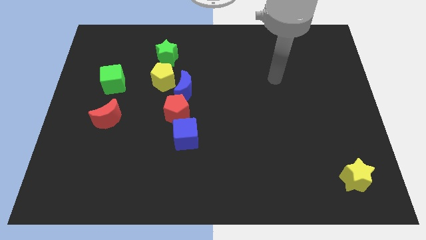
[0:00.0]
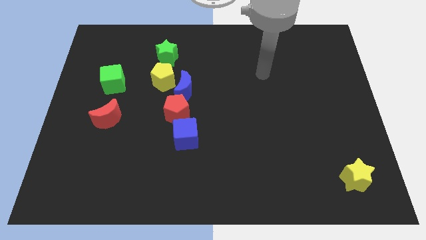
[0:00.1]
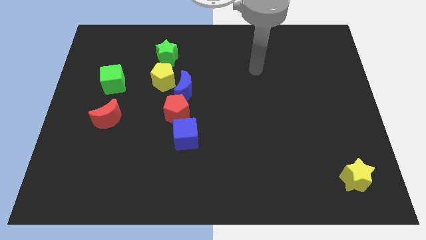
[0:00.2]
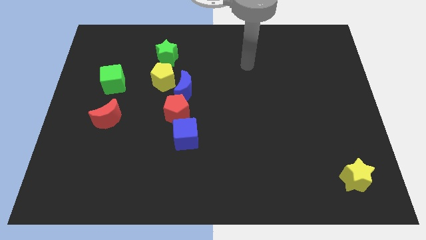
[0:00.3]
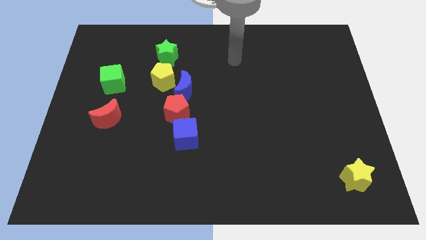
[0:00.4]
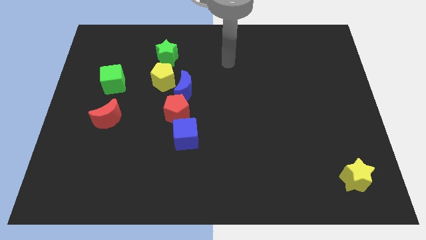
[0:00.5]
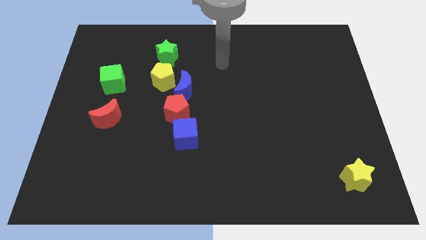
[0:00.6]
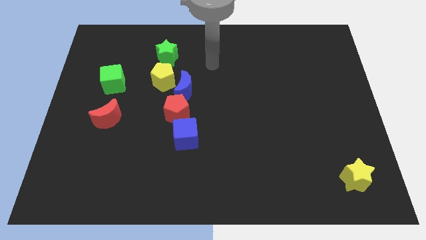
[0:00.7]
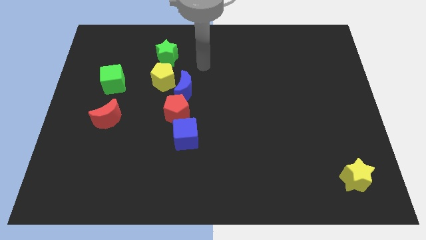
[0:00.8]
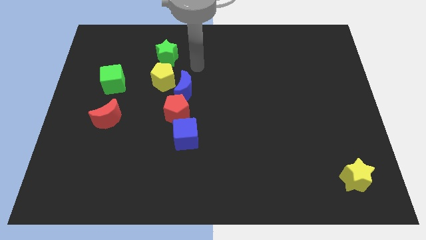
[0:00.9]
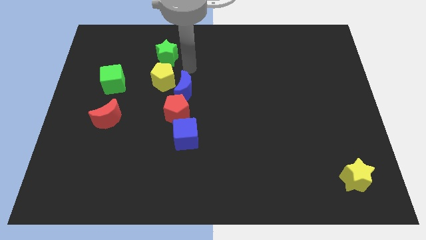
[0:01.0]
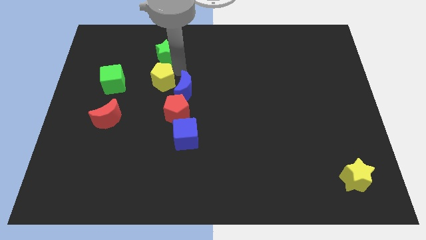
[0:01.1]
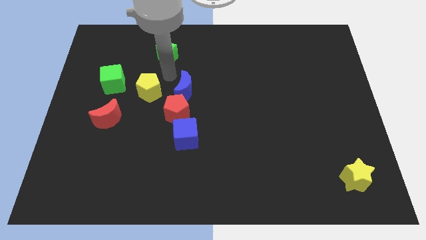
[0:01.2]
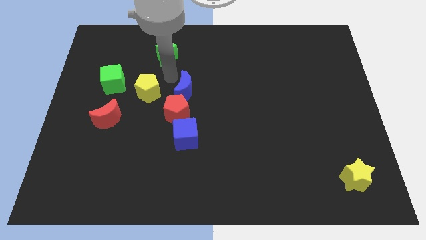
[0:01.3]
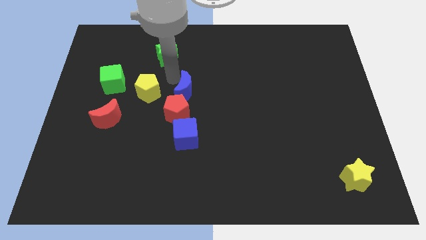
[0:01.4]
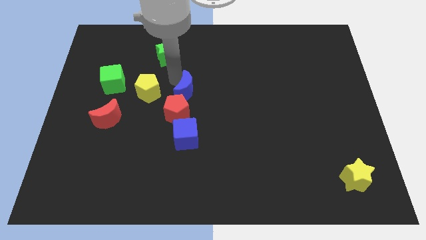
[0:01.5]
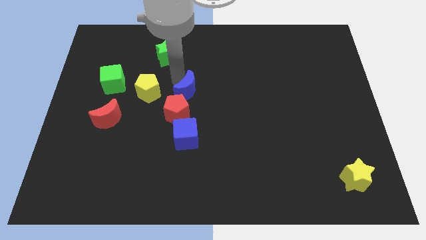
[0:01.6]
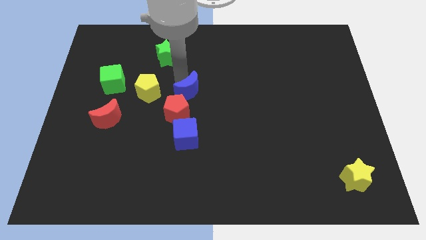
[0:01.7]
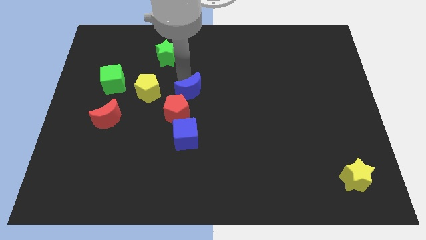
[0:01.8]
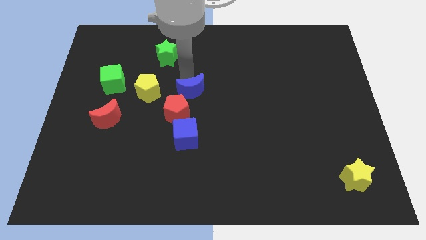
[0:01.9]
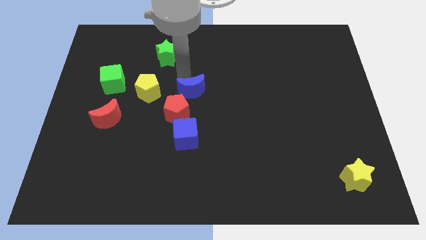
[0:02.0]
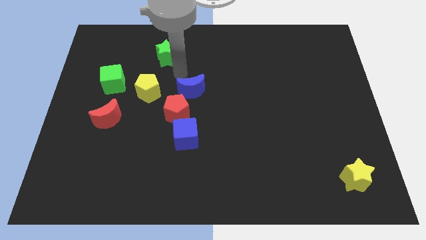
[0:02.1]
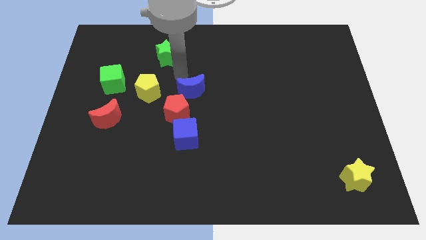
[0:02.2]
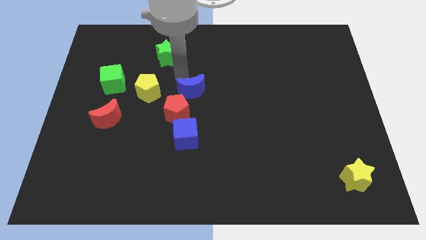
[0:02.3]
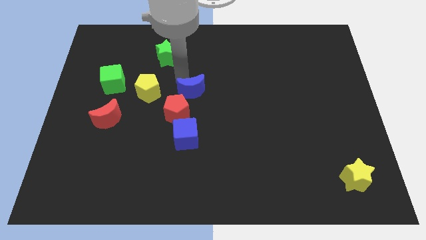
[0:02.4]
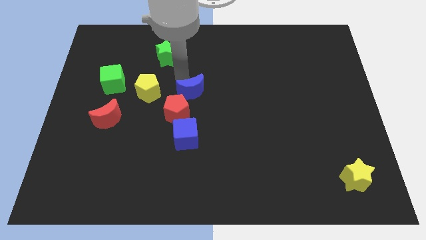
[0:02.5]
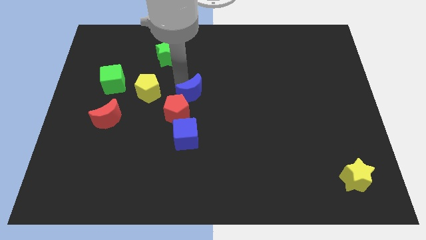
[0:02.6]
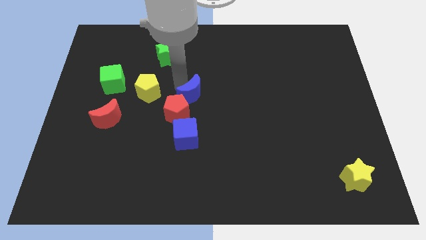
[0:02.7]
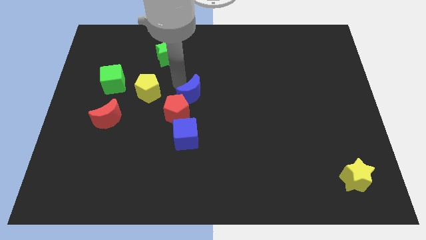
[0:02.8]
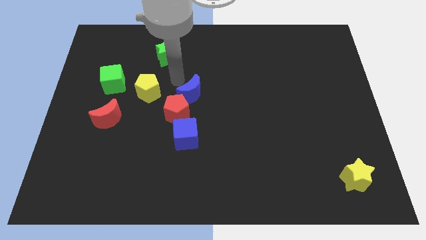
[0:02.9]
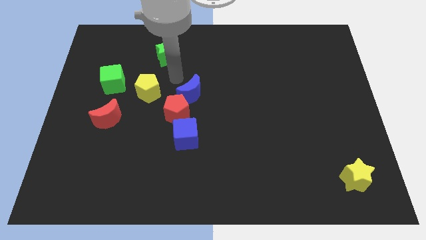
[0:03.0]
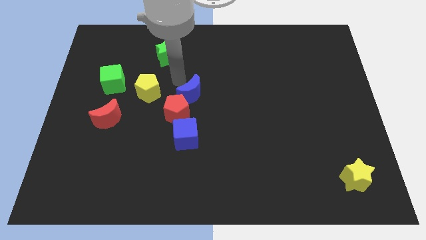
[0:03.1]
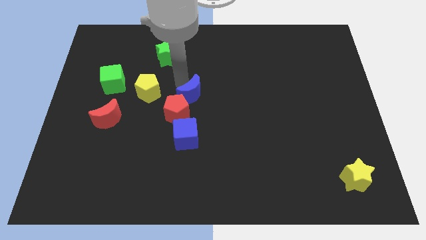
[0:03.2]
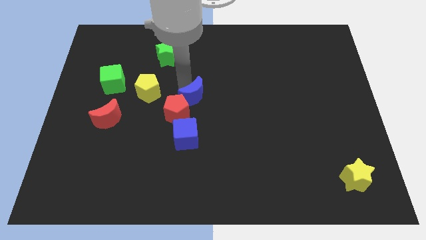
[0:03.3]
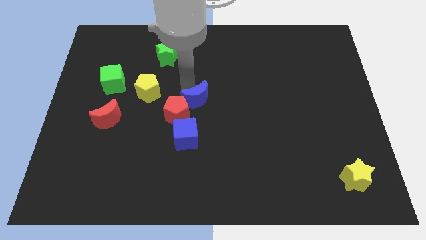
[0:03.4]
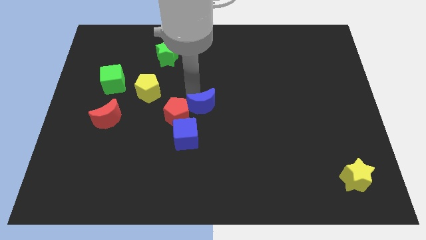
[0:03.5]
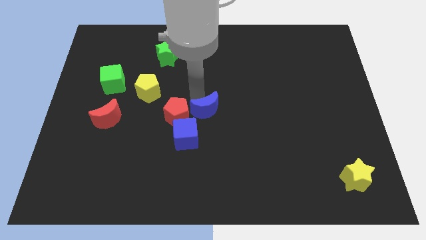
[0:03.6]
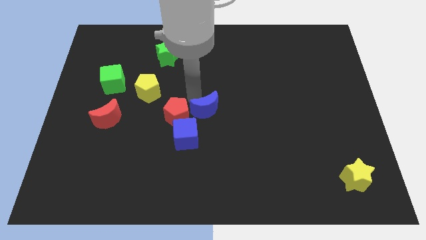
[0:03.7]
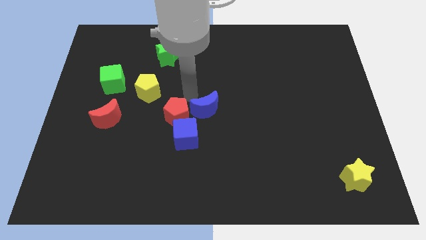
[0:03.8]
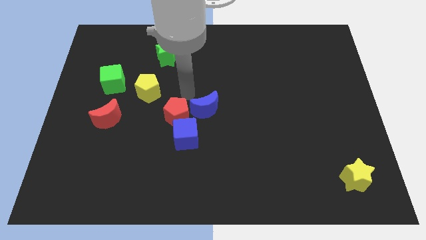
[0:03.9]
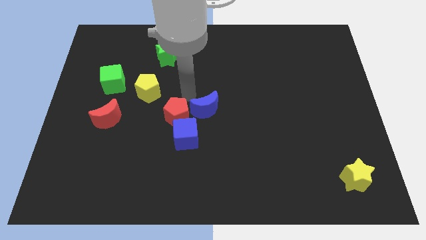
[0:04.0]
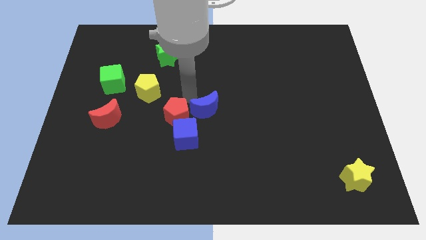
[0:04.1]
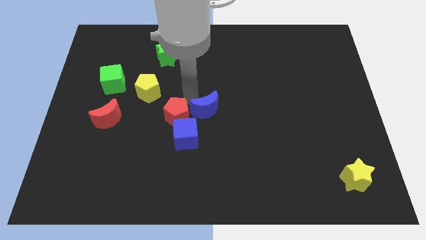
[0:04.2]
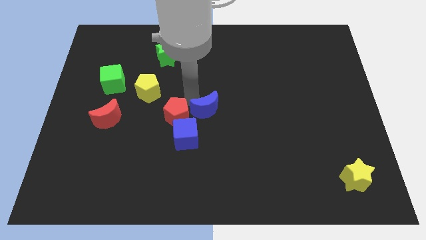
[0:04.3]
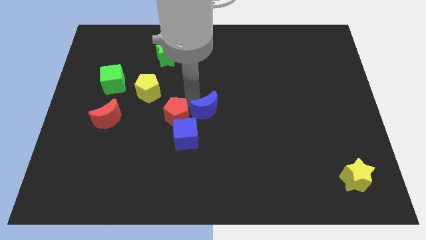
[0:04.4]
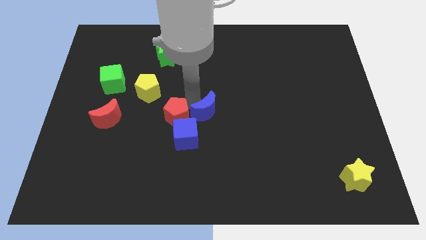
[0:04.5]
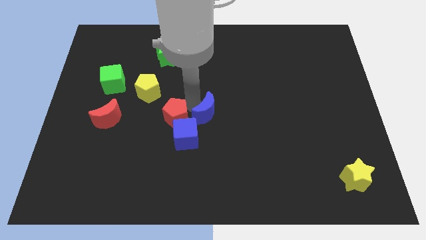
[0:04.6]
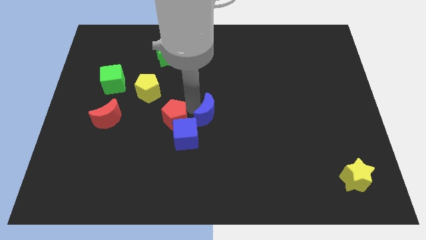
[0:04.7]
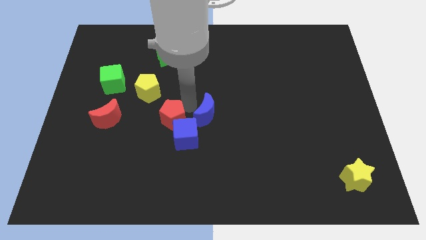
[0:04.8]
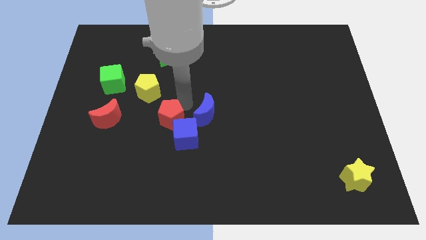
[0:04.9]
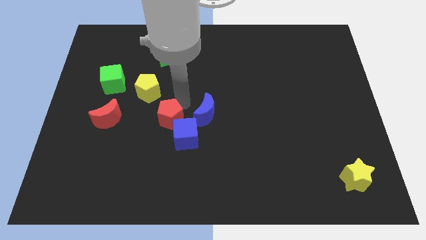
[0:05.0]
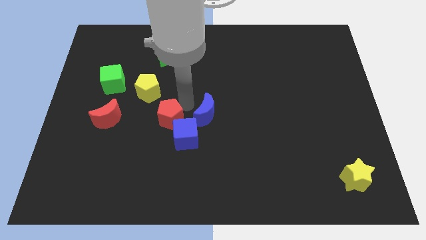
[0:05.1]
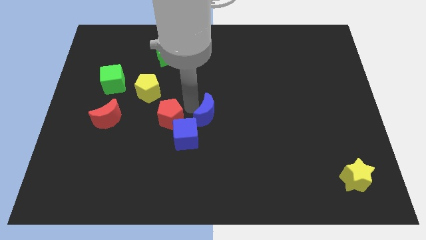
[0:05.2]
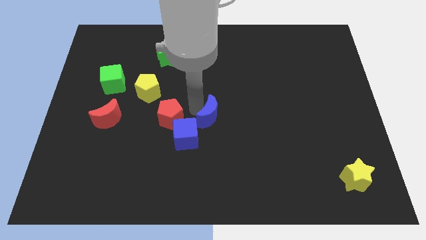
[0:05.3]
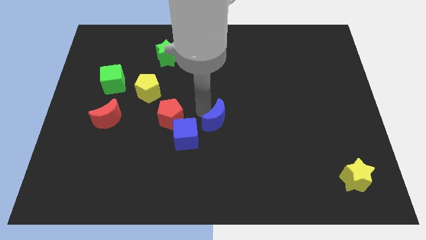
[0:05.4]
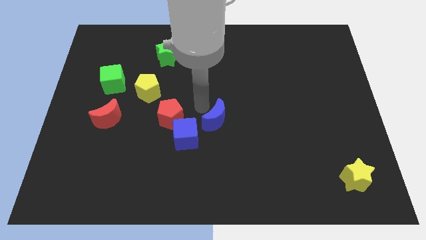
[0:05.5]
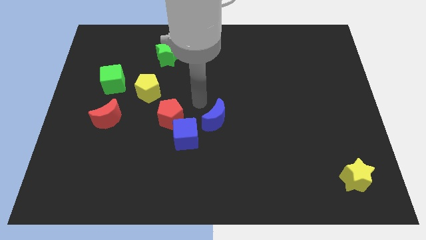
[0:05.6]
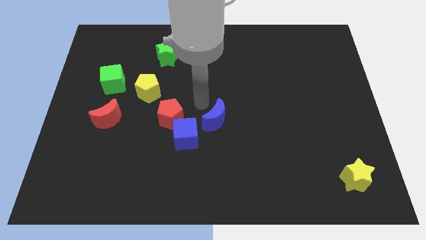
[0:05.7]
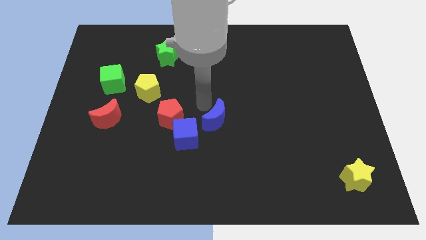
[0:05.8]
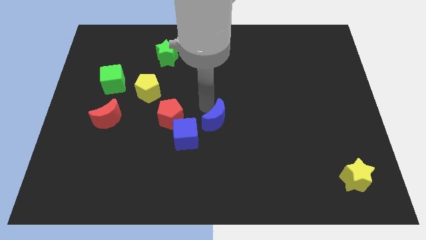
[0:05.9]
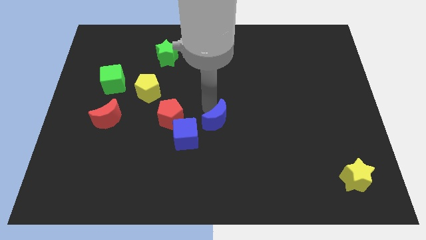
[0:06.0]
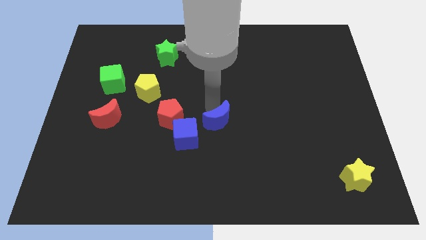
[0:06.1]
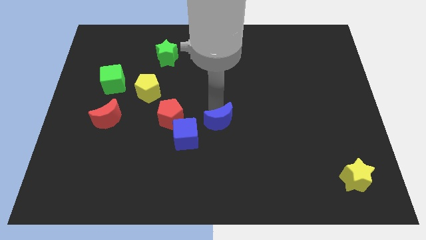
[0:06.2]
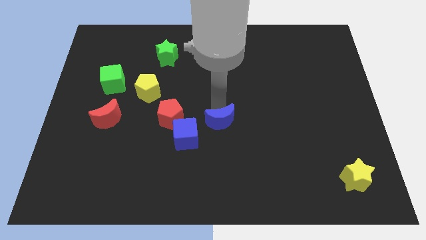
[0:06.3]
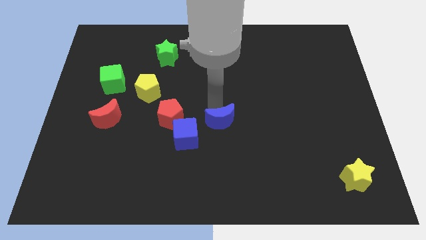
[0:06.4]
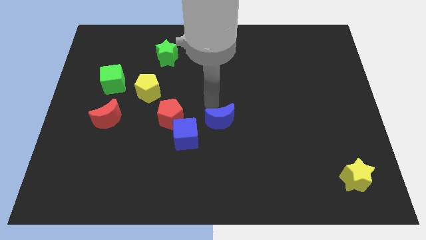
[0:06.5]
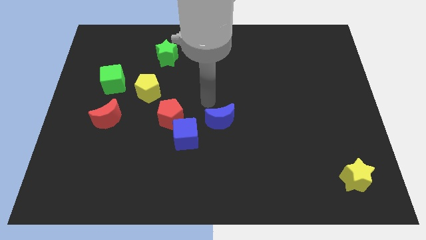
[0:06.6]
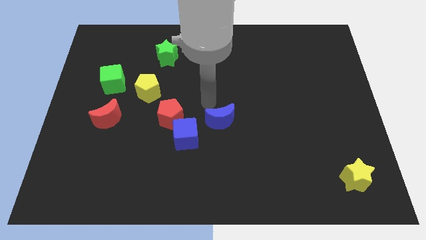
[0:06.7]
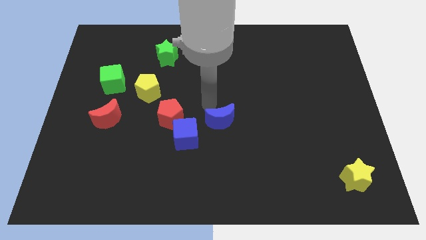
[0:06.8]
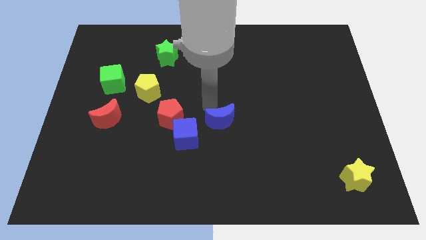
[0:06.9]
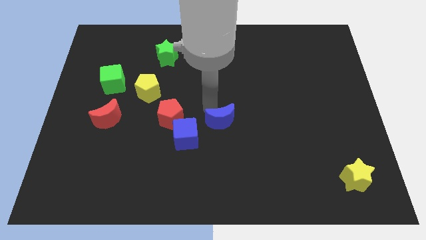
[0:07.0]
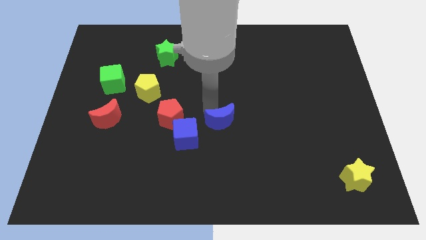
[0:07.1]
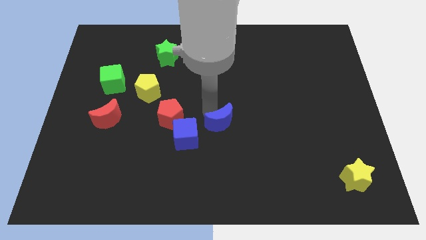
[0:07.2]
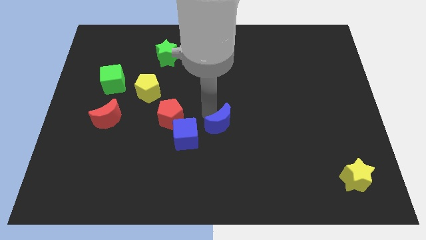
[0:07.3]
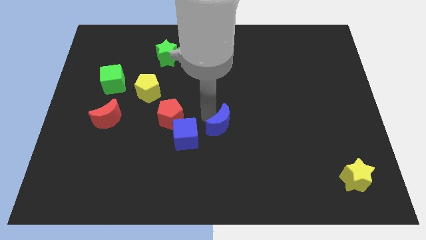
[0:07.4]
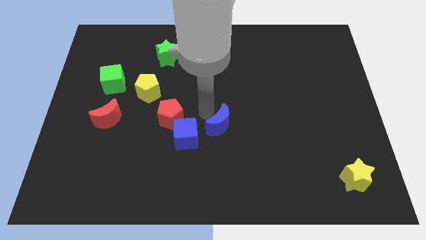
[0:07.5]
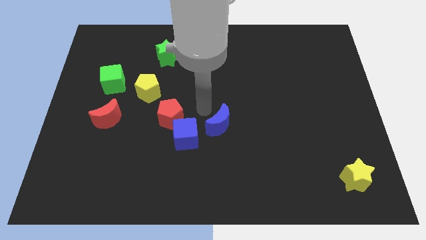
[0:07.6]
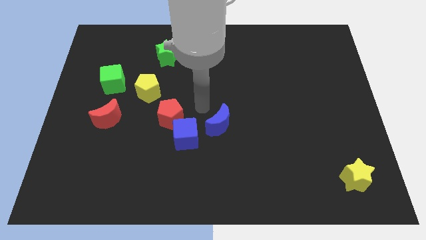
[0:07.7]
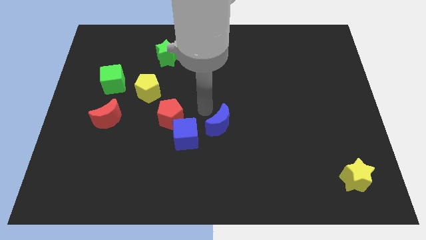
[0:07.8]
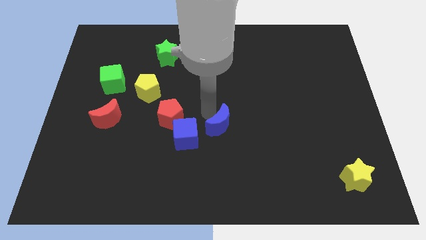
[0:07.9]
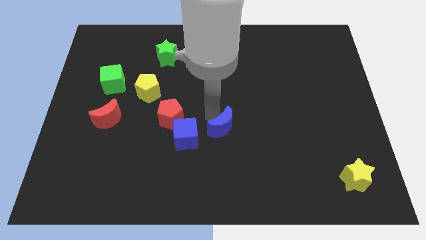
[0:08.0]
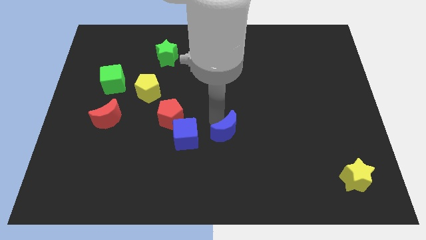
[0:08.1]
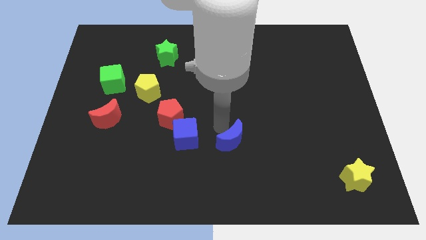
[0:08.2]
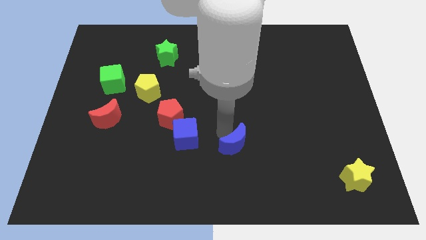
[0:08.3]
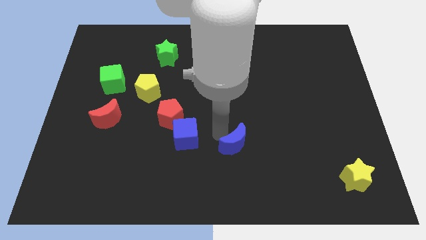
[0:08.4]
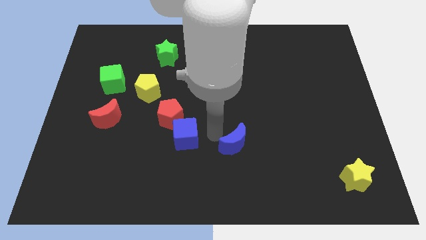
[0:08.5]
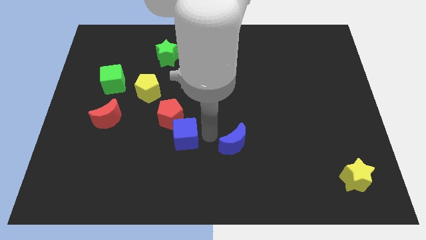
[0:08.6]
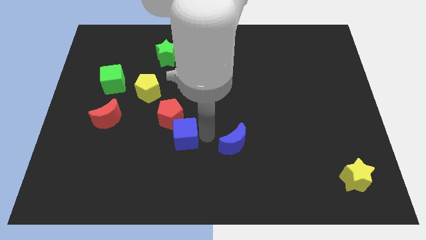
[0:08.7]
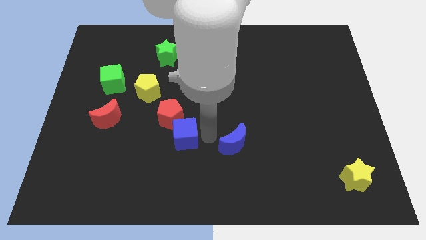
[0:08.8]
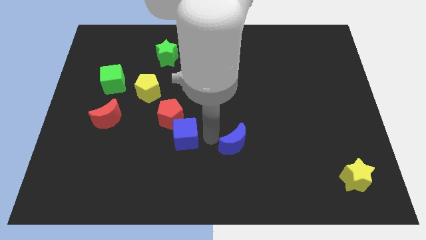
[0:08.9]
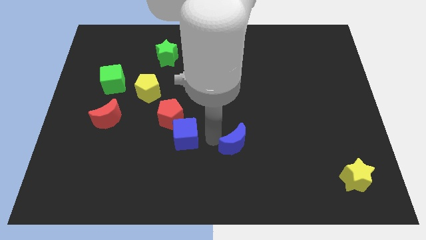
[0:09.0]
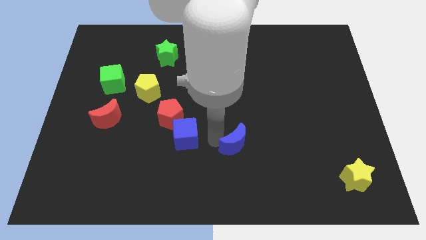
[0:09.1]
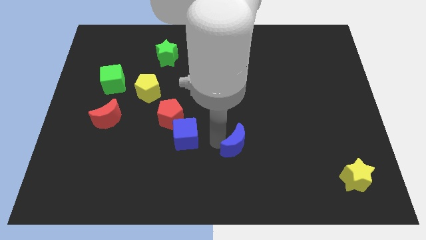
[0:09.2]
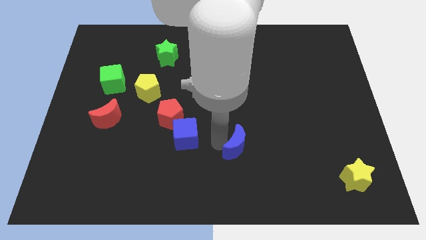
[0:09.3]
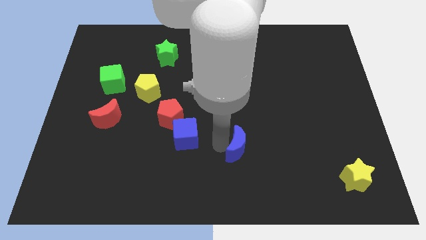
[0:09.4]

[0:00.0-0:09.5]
move the blue moon diagonally downwards and to the right
